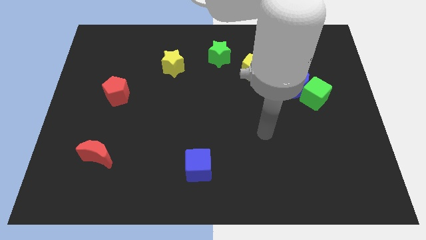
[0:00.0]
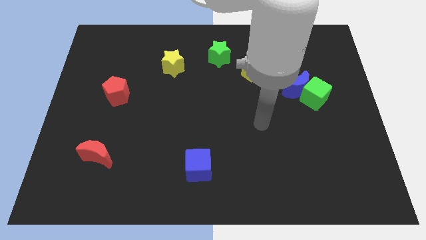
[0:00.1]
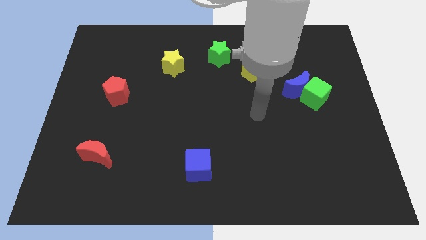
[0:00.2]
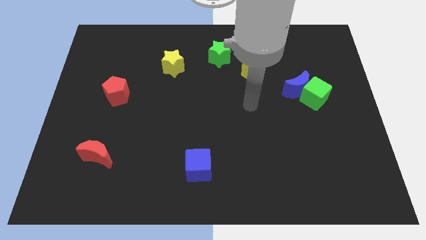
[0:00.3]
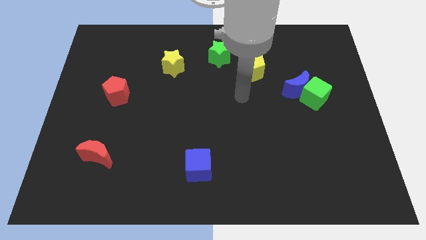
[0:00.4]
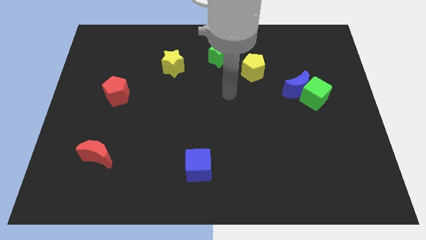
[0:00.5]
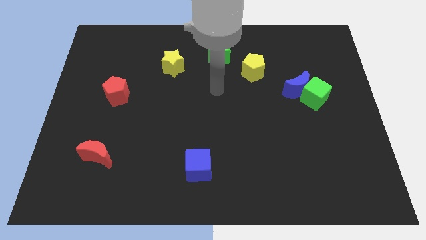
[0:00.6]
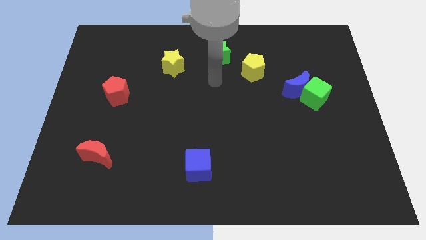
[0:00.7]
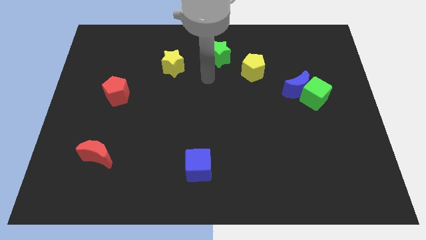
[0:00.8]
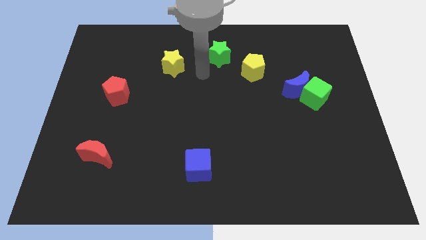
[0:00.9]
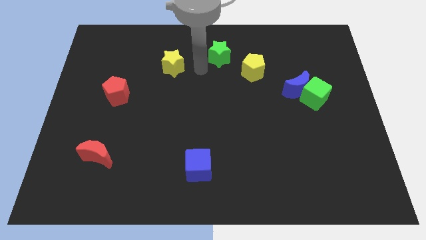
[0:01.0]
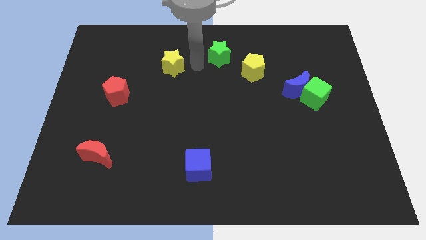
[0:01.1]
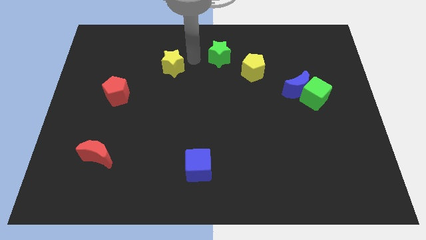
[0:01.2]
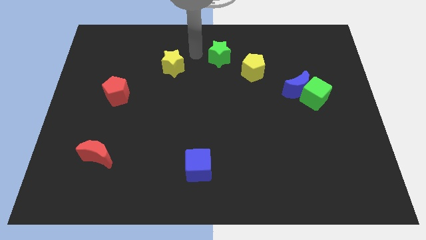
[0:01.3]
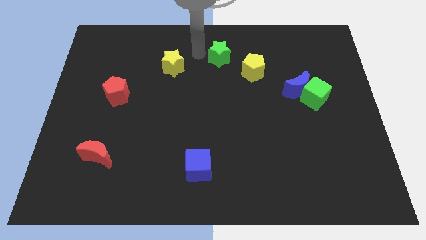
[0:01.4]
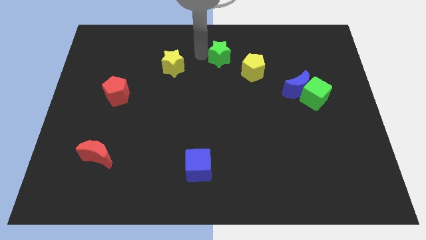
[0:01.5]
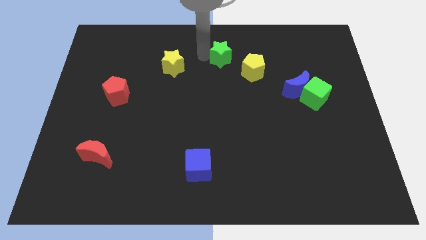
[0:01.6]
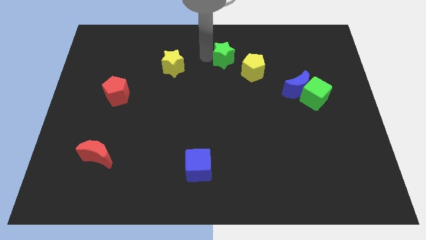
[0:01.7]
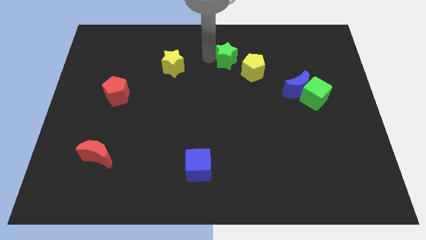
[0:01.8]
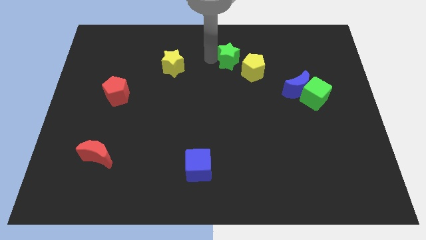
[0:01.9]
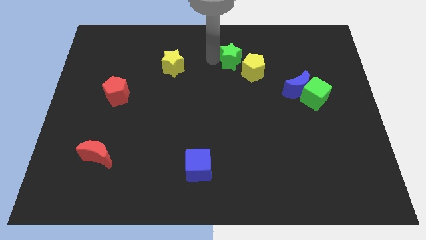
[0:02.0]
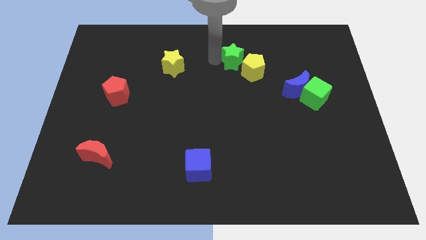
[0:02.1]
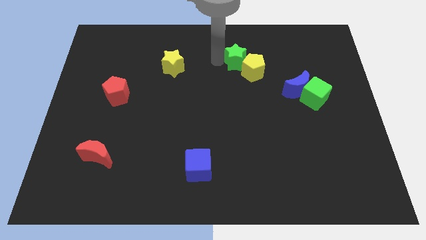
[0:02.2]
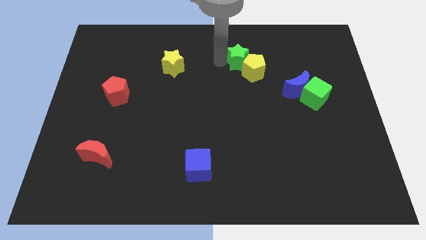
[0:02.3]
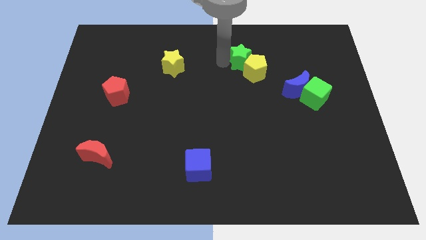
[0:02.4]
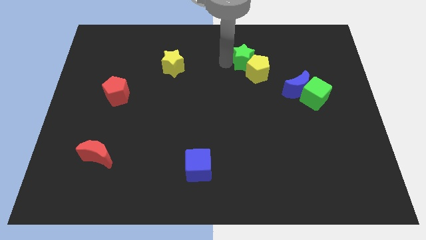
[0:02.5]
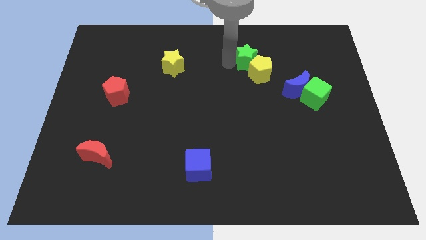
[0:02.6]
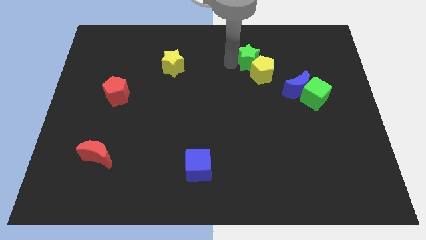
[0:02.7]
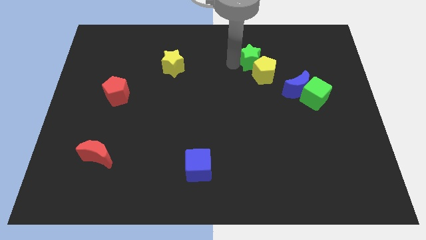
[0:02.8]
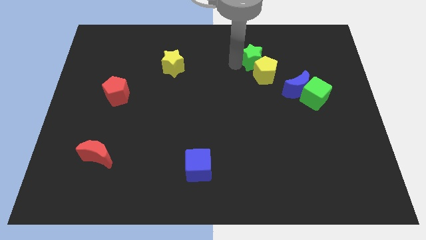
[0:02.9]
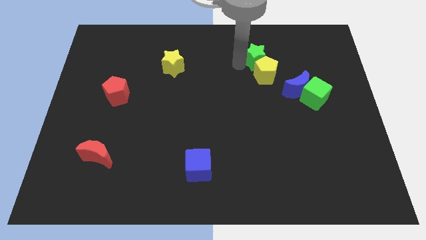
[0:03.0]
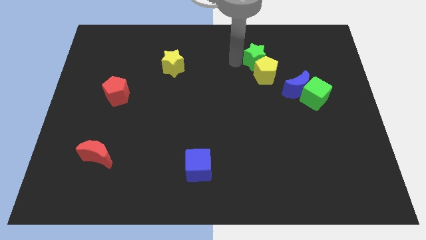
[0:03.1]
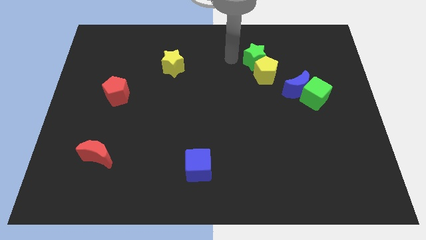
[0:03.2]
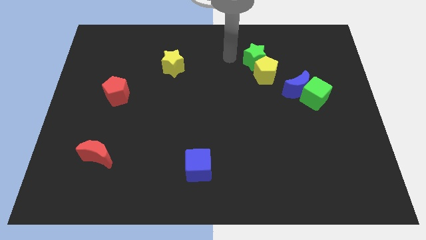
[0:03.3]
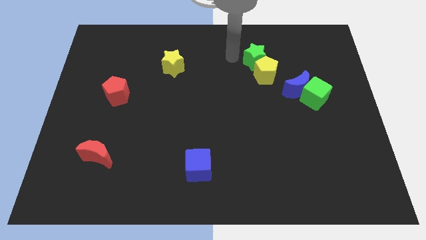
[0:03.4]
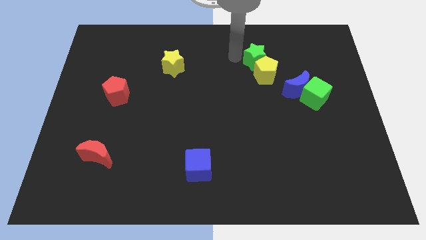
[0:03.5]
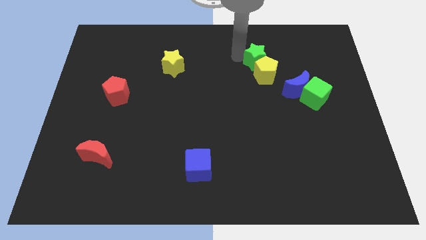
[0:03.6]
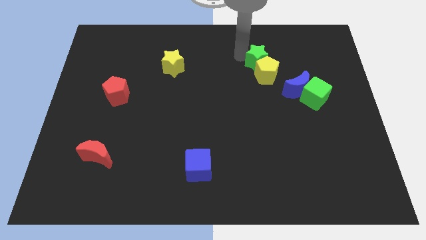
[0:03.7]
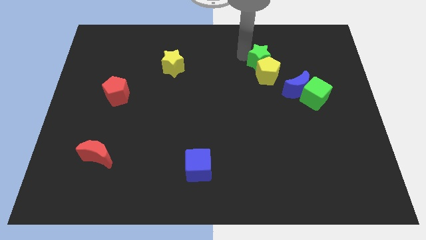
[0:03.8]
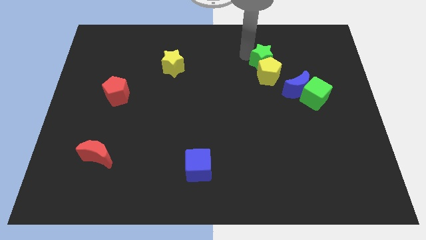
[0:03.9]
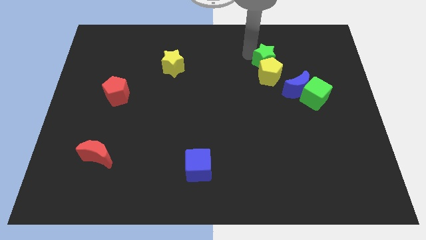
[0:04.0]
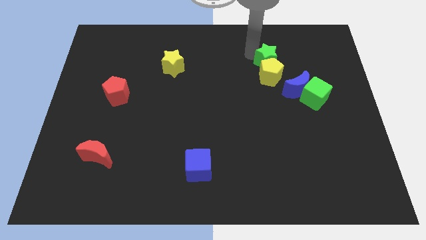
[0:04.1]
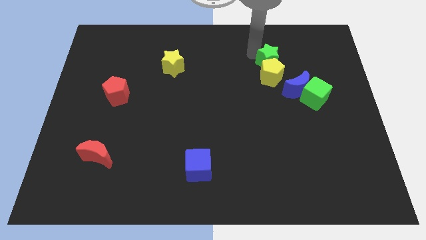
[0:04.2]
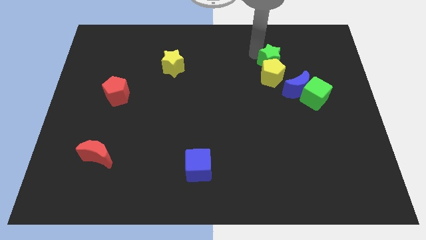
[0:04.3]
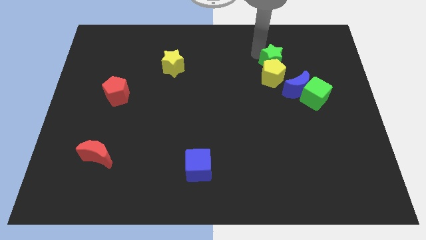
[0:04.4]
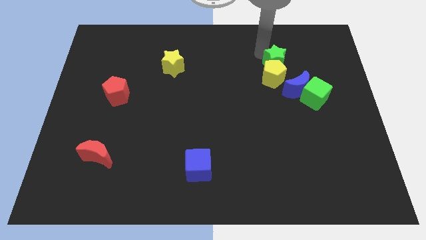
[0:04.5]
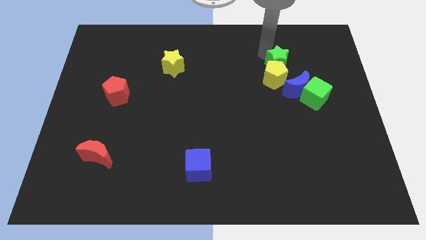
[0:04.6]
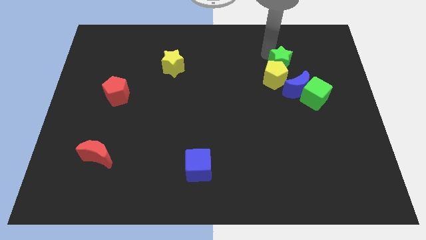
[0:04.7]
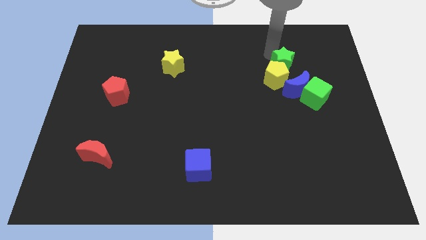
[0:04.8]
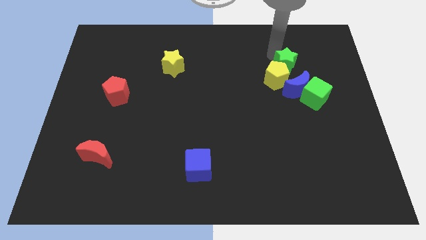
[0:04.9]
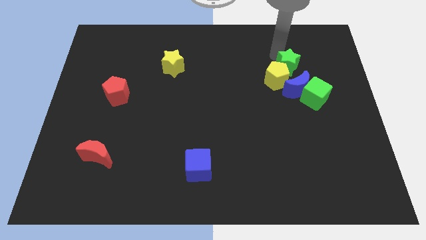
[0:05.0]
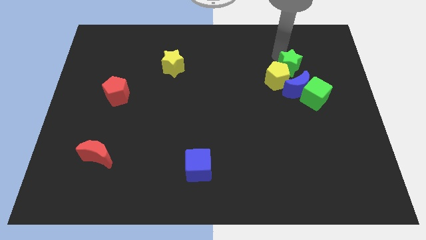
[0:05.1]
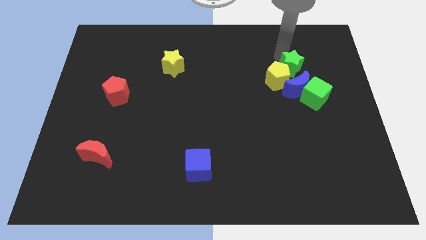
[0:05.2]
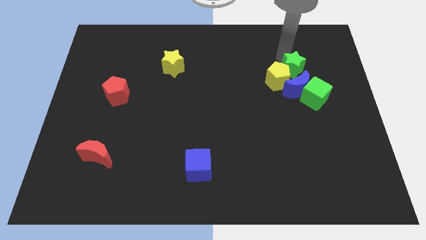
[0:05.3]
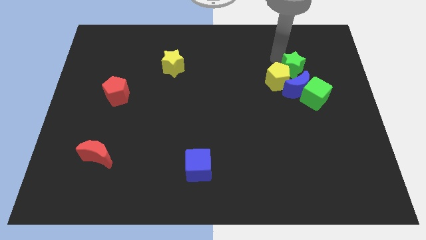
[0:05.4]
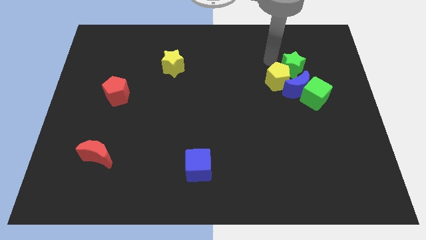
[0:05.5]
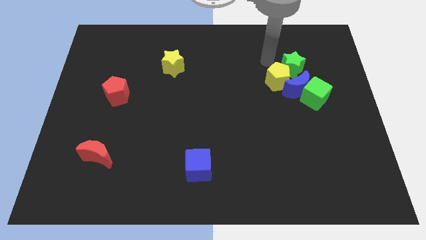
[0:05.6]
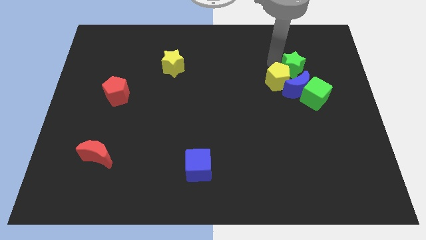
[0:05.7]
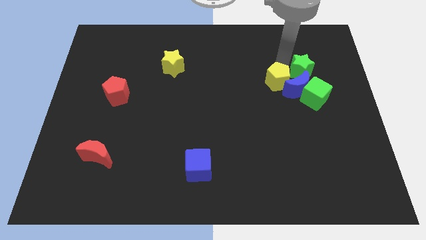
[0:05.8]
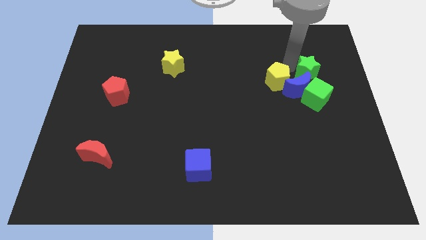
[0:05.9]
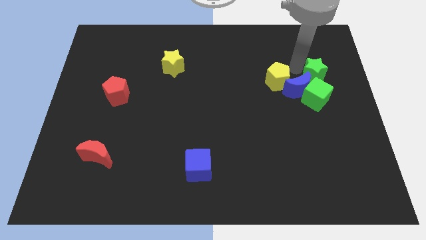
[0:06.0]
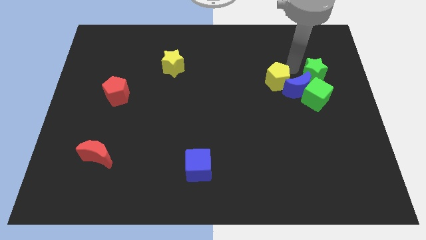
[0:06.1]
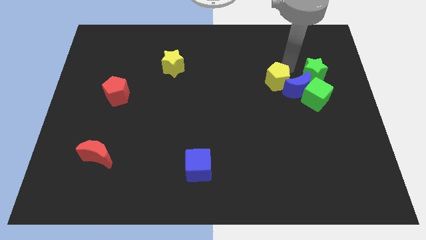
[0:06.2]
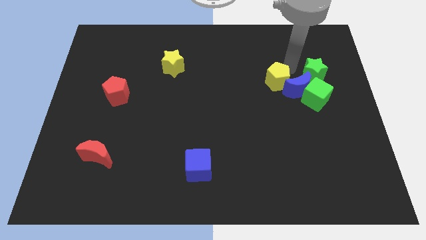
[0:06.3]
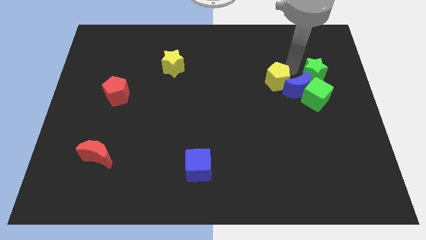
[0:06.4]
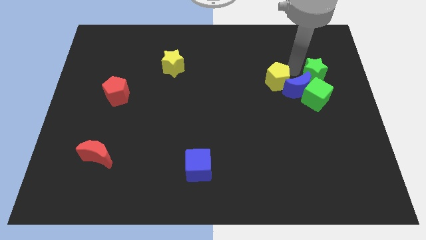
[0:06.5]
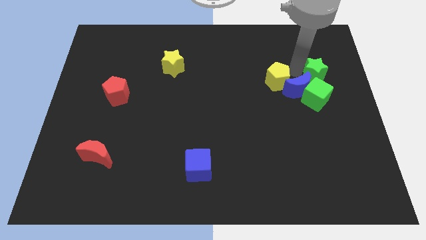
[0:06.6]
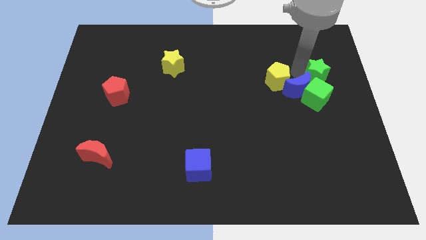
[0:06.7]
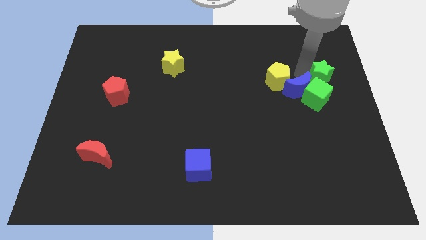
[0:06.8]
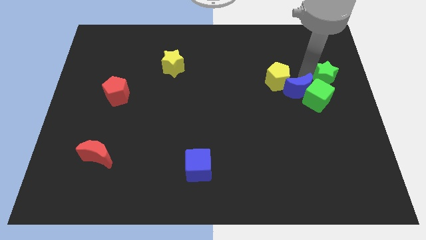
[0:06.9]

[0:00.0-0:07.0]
put the green star to the center right

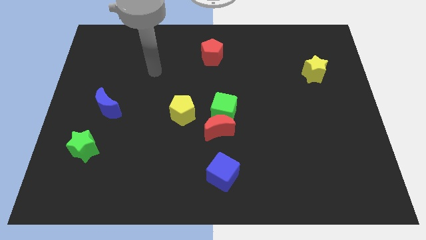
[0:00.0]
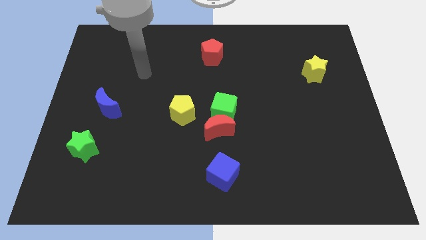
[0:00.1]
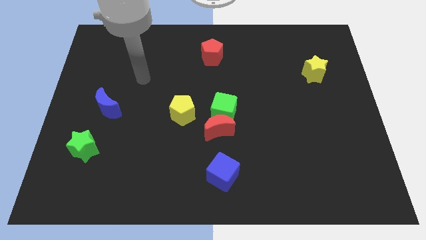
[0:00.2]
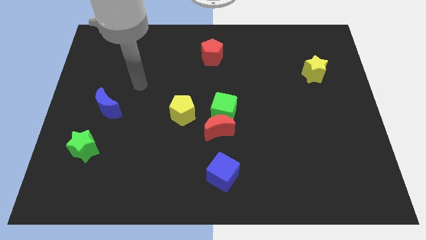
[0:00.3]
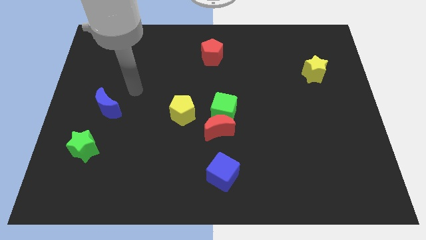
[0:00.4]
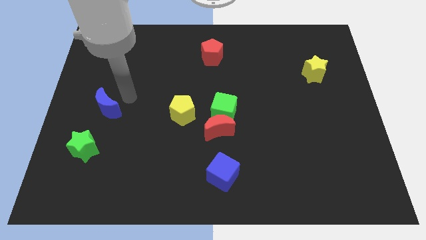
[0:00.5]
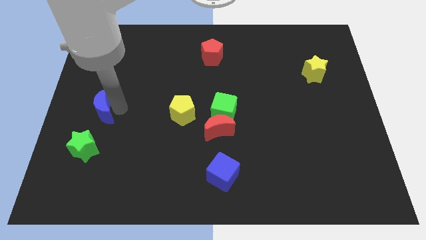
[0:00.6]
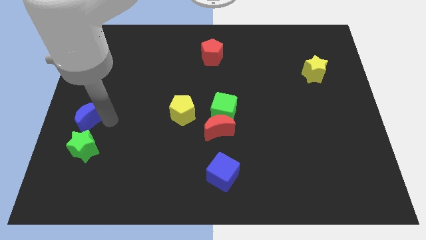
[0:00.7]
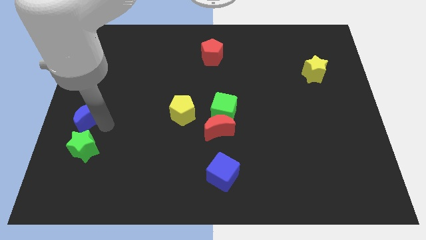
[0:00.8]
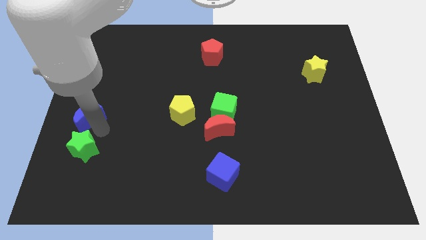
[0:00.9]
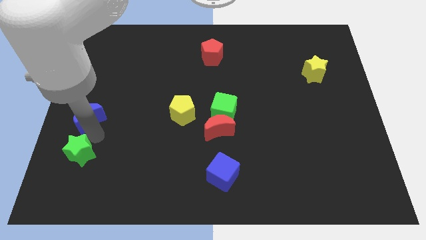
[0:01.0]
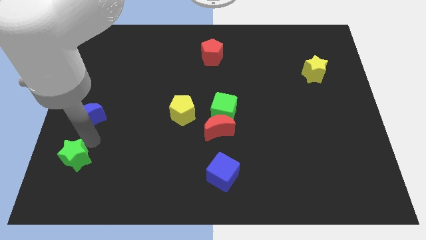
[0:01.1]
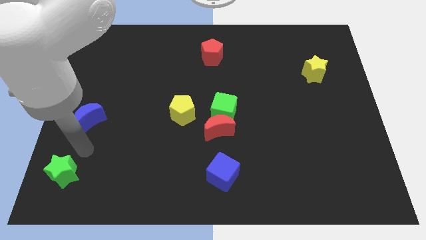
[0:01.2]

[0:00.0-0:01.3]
push the green star to the lower left corner
